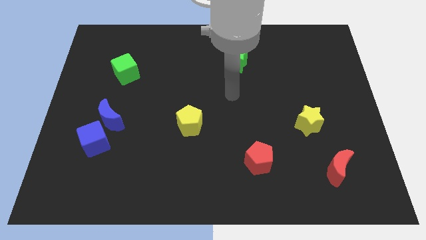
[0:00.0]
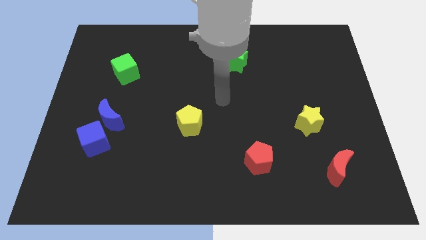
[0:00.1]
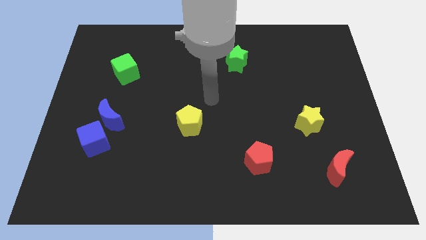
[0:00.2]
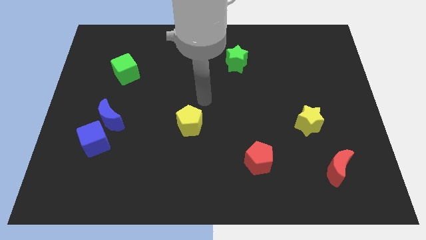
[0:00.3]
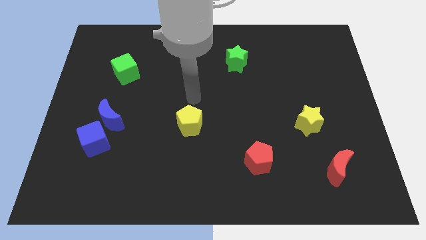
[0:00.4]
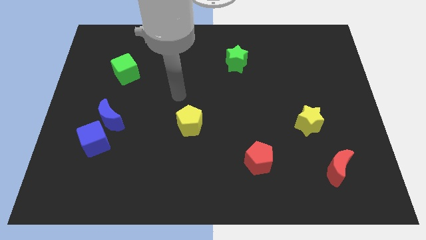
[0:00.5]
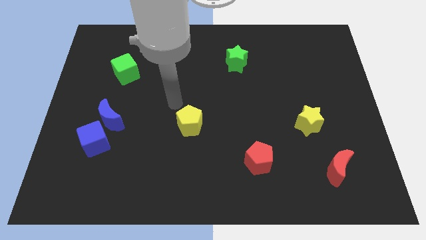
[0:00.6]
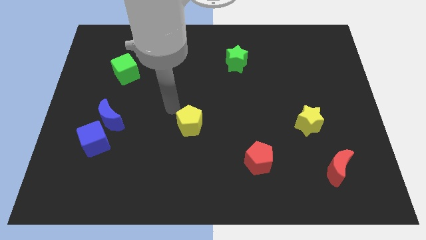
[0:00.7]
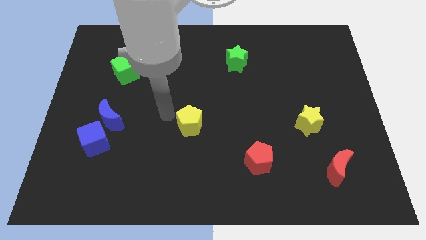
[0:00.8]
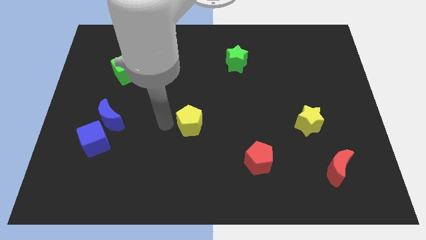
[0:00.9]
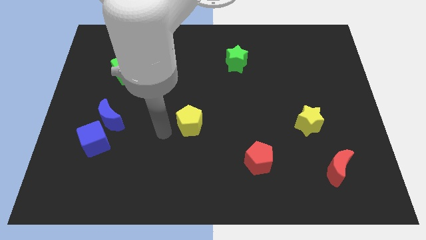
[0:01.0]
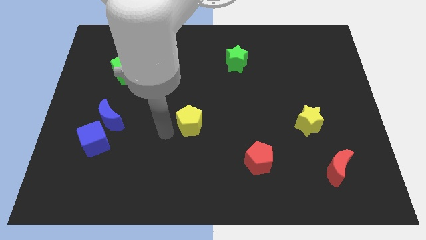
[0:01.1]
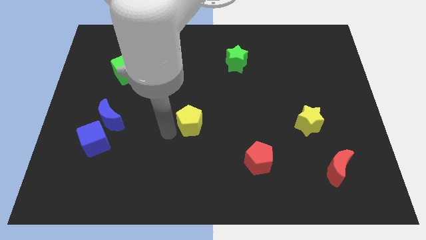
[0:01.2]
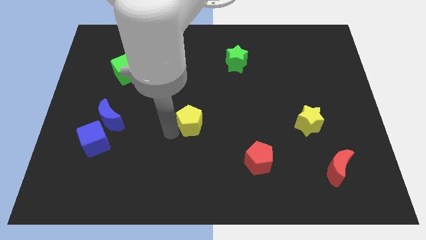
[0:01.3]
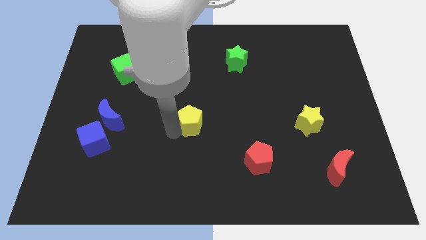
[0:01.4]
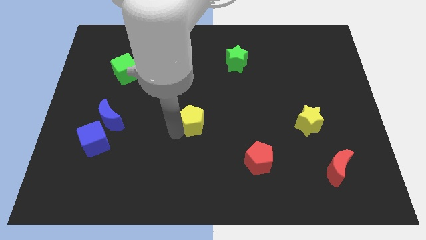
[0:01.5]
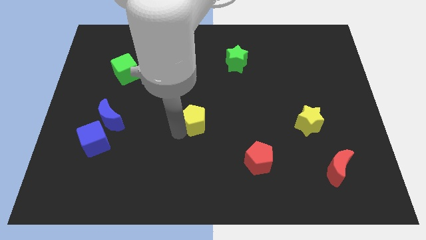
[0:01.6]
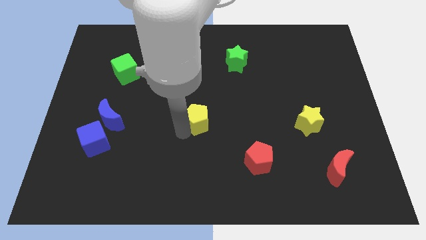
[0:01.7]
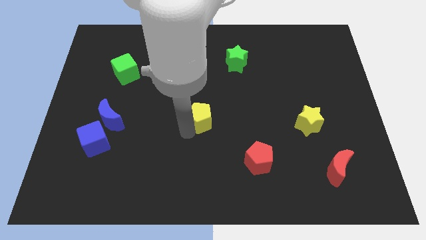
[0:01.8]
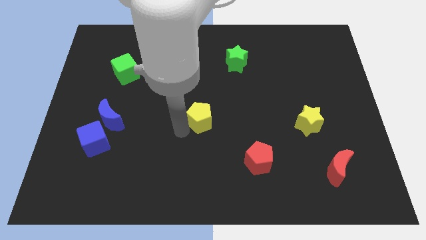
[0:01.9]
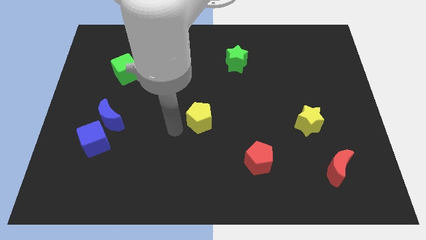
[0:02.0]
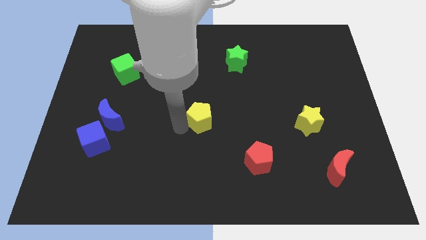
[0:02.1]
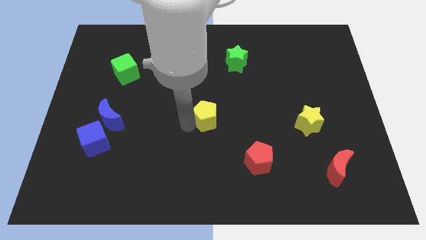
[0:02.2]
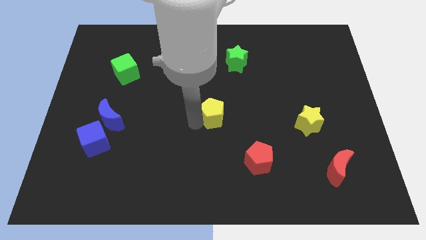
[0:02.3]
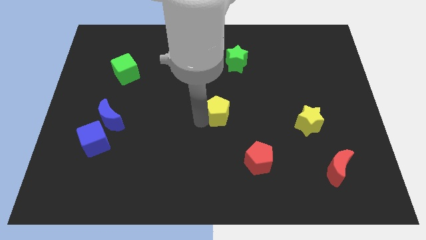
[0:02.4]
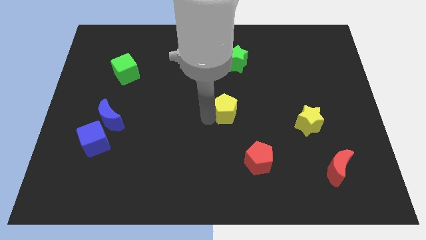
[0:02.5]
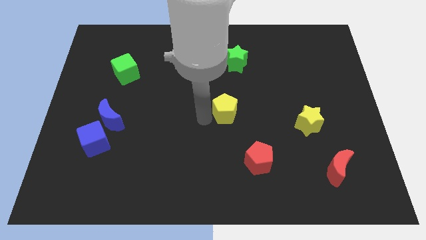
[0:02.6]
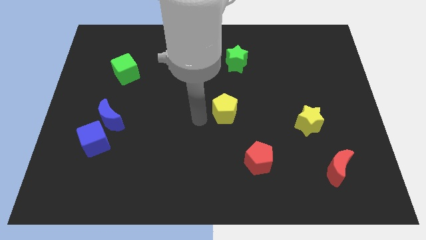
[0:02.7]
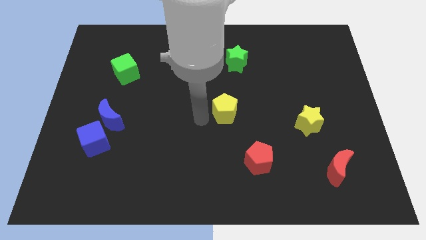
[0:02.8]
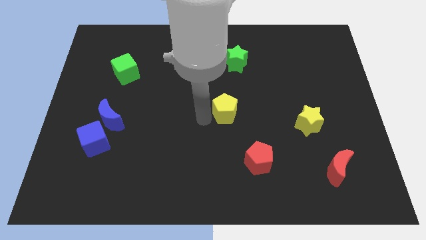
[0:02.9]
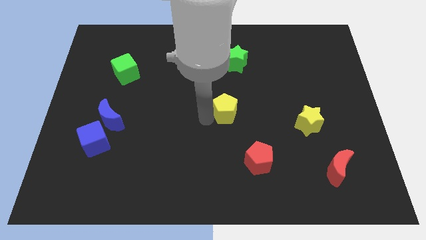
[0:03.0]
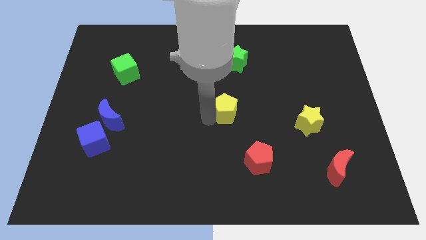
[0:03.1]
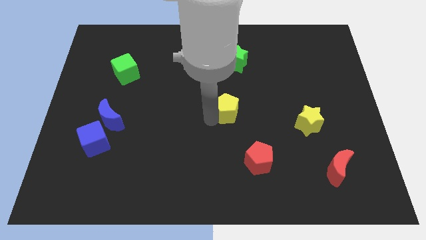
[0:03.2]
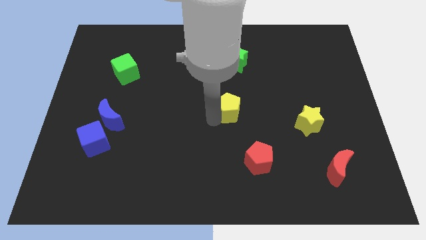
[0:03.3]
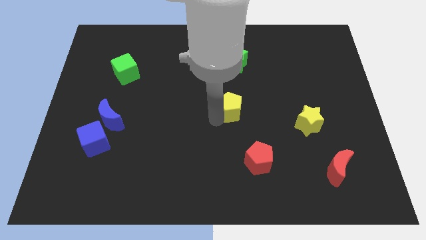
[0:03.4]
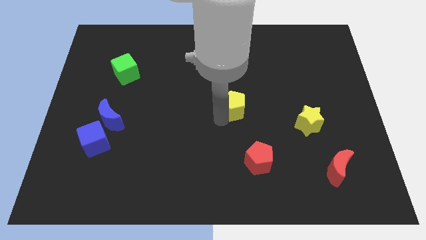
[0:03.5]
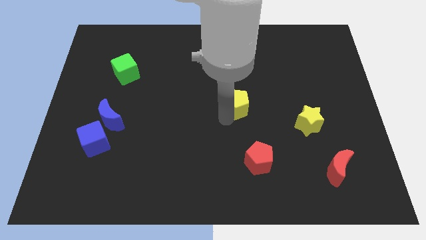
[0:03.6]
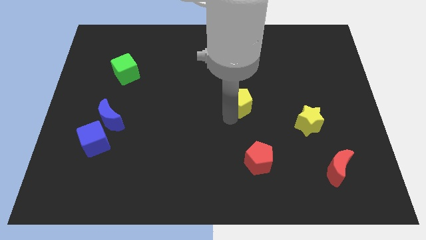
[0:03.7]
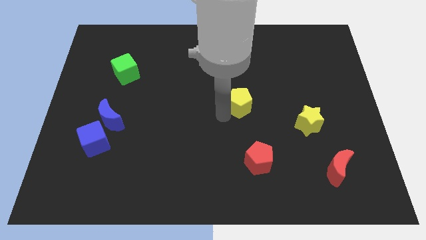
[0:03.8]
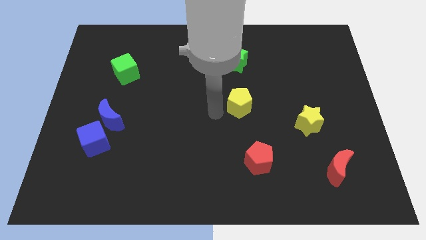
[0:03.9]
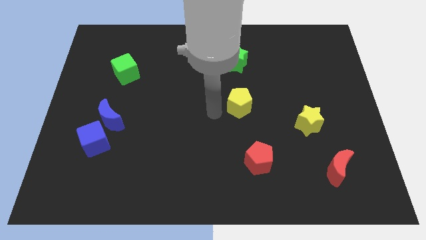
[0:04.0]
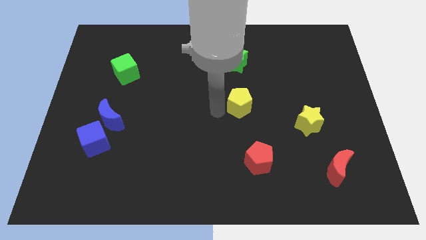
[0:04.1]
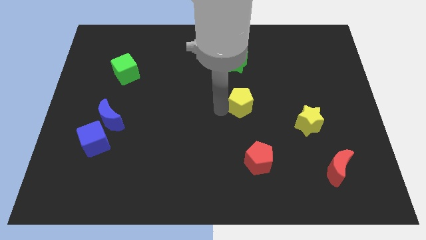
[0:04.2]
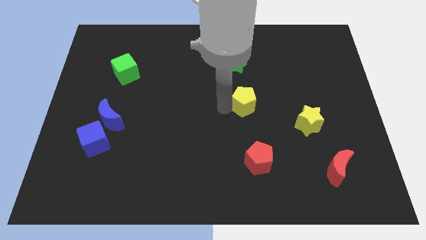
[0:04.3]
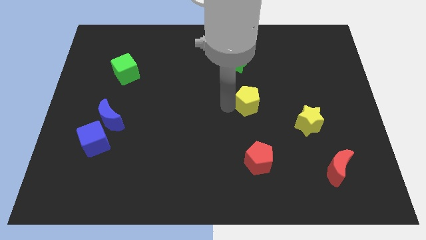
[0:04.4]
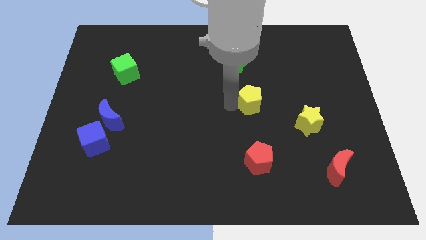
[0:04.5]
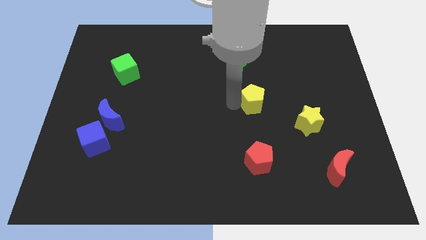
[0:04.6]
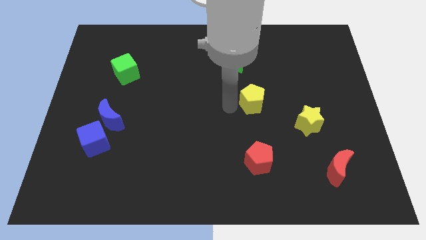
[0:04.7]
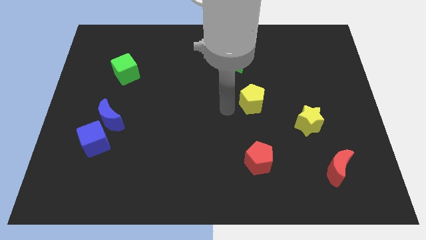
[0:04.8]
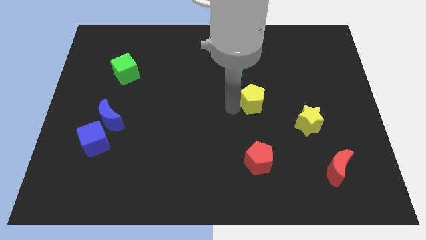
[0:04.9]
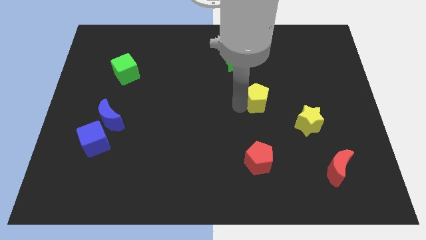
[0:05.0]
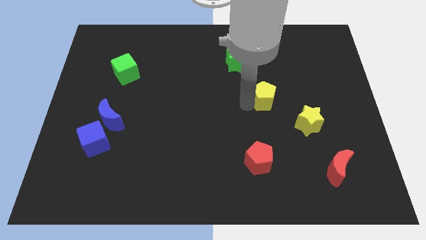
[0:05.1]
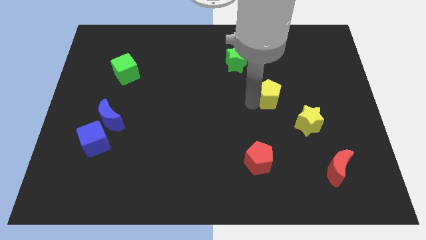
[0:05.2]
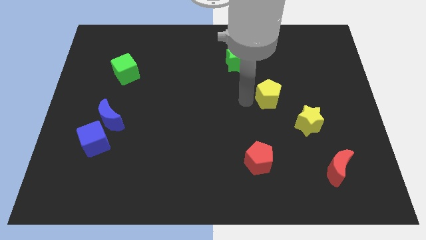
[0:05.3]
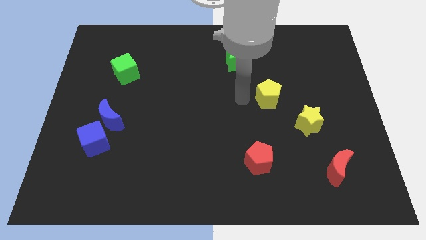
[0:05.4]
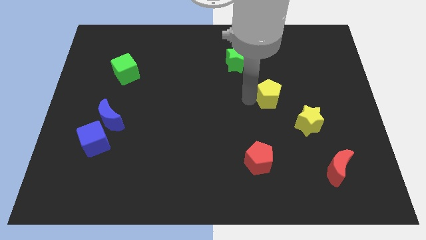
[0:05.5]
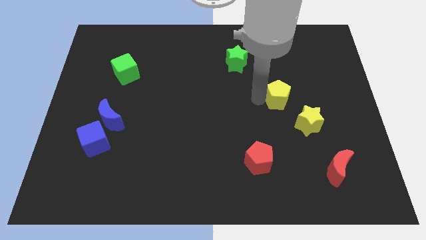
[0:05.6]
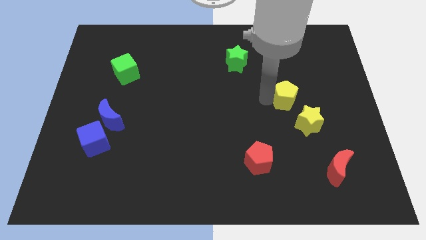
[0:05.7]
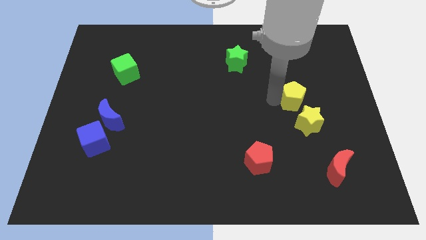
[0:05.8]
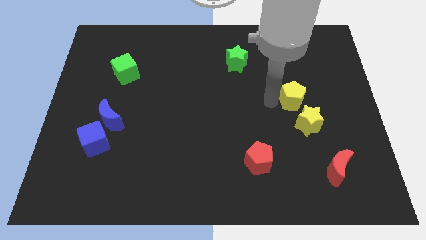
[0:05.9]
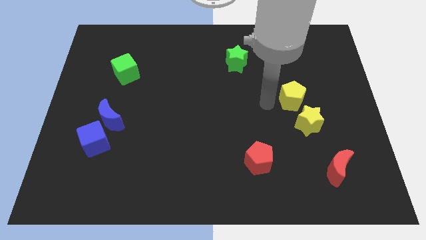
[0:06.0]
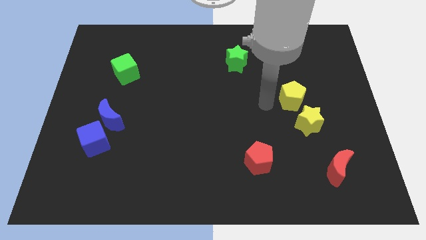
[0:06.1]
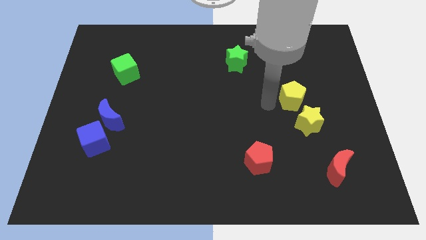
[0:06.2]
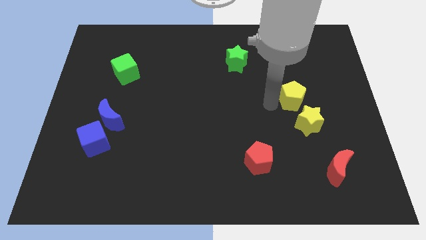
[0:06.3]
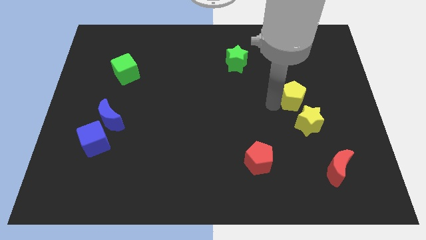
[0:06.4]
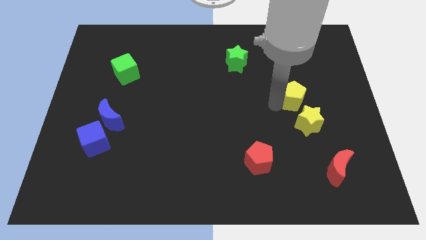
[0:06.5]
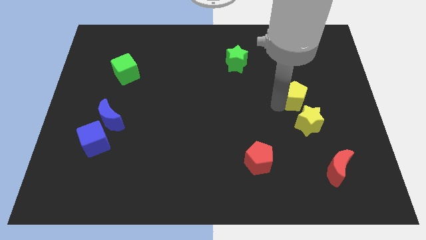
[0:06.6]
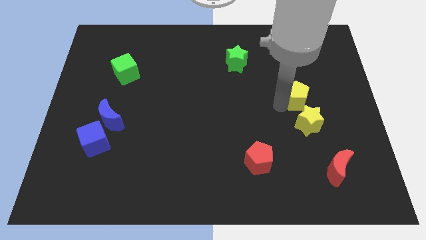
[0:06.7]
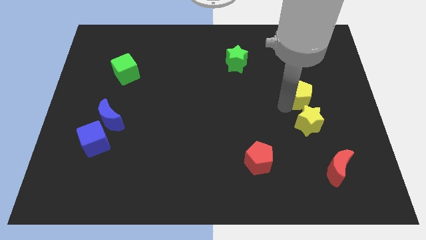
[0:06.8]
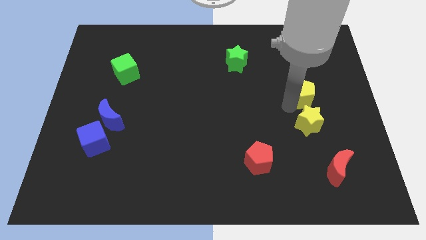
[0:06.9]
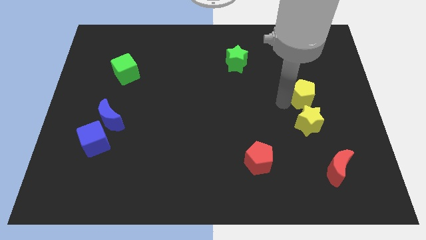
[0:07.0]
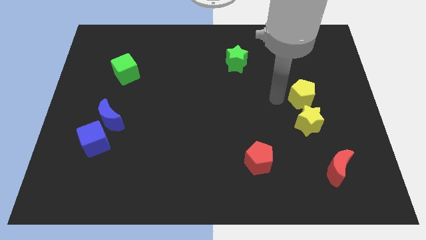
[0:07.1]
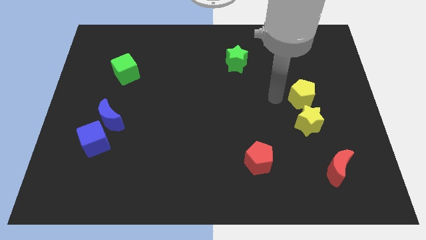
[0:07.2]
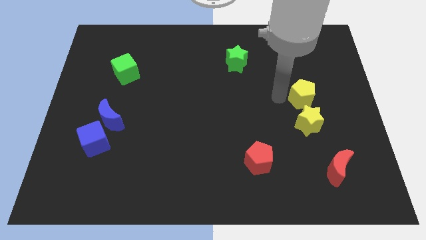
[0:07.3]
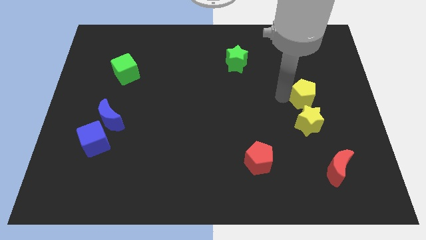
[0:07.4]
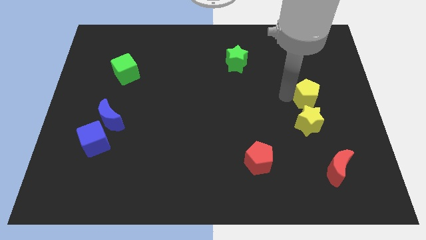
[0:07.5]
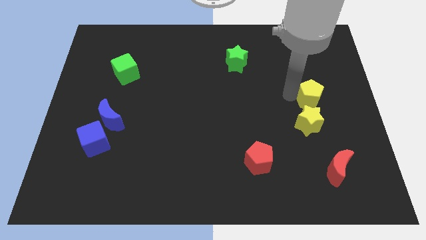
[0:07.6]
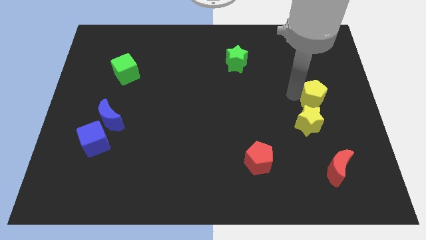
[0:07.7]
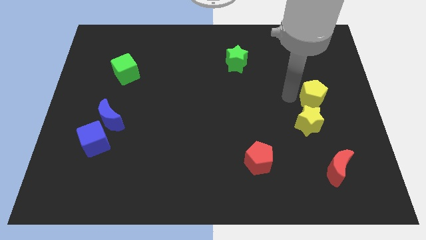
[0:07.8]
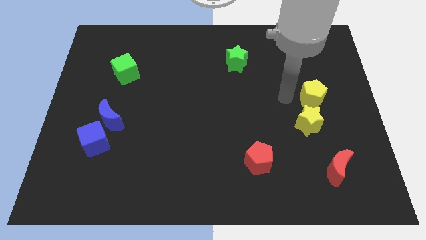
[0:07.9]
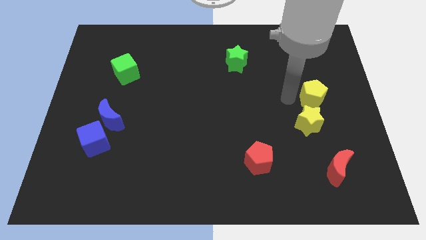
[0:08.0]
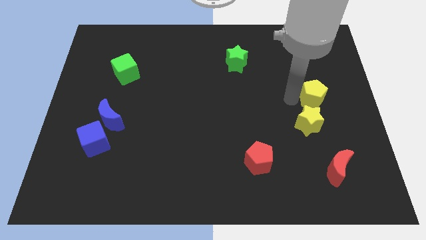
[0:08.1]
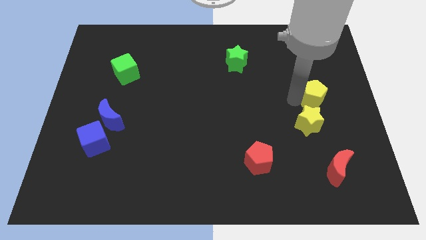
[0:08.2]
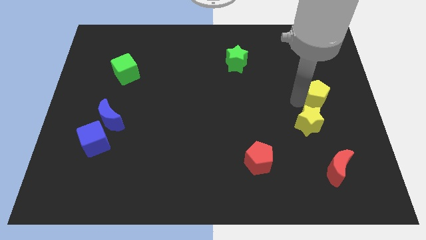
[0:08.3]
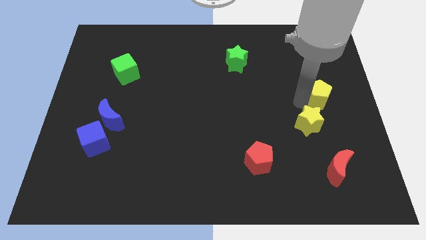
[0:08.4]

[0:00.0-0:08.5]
push the yellow pentagon to the right side of the board
